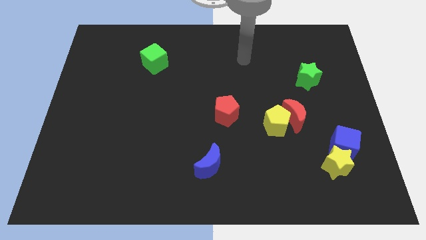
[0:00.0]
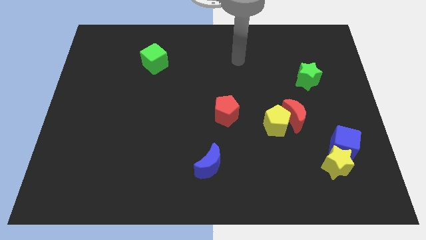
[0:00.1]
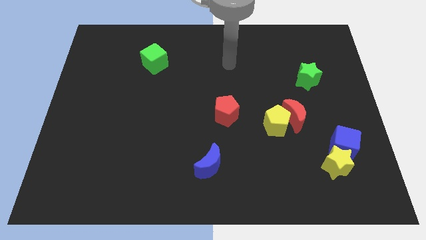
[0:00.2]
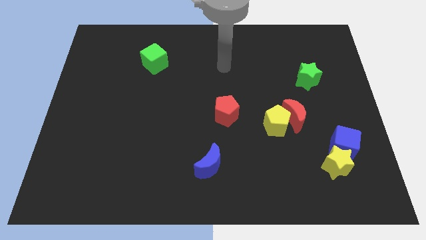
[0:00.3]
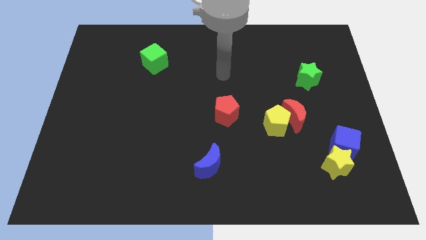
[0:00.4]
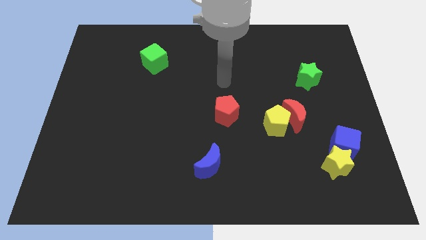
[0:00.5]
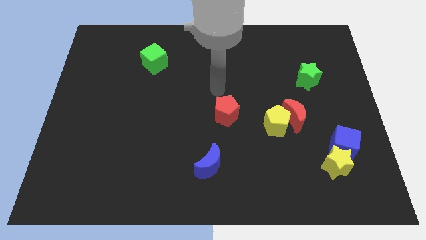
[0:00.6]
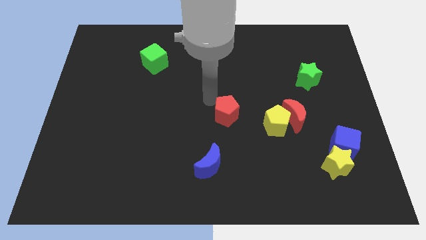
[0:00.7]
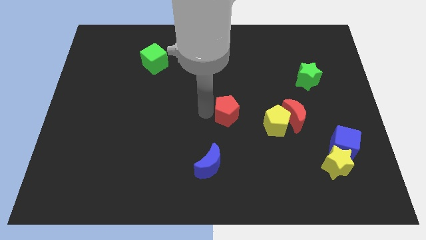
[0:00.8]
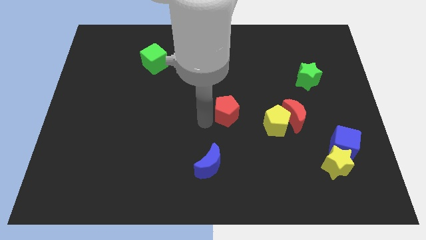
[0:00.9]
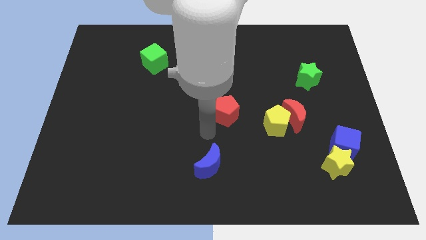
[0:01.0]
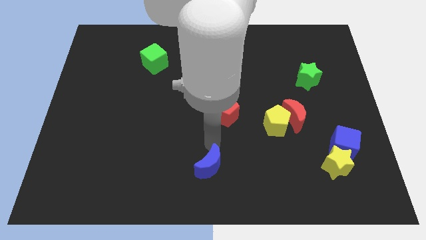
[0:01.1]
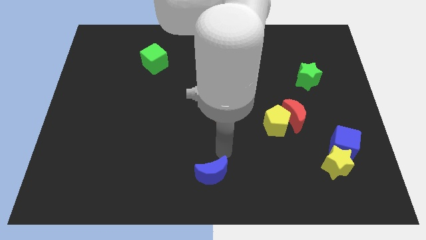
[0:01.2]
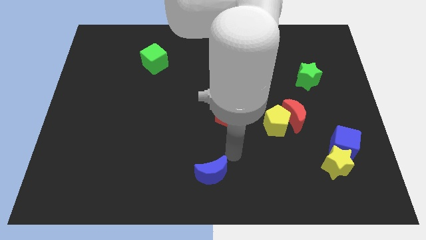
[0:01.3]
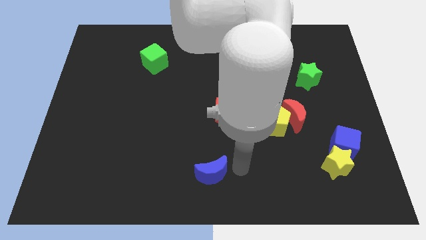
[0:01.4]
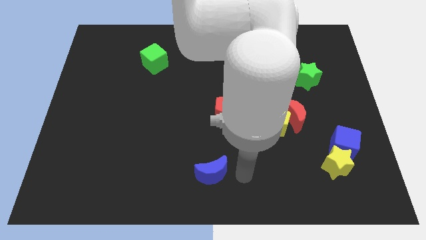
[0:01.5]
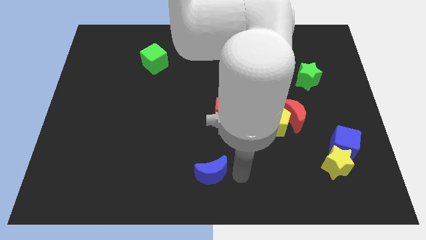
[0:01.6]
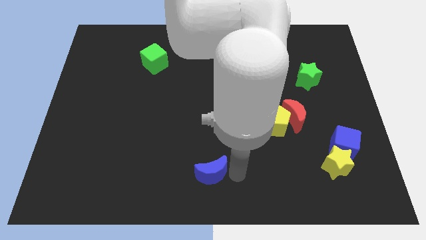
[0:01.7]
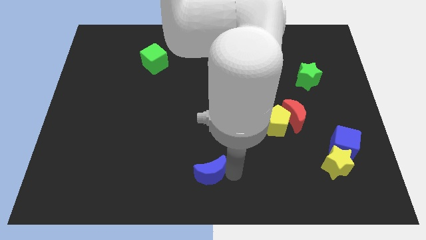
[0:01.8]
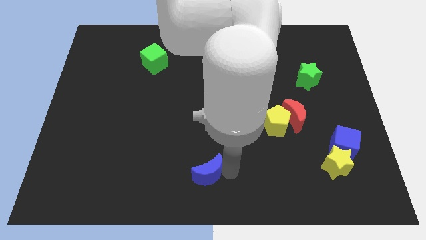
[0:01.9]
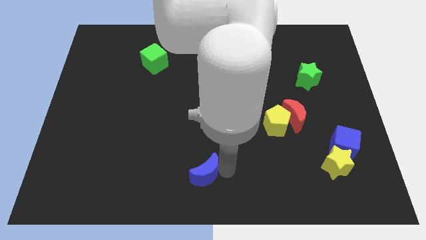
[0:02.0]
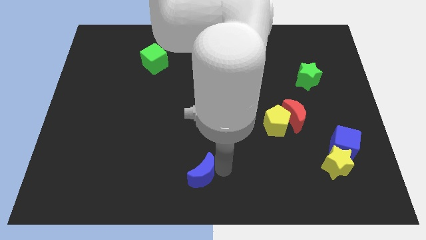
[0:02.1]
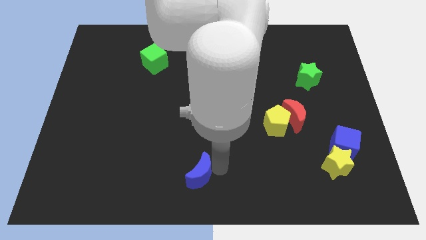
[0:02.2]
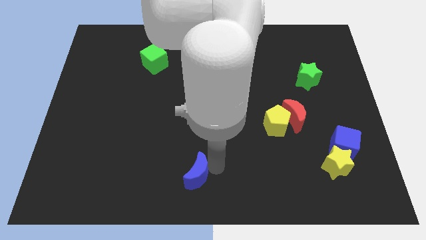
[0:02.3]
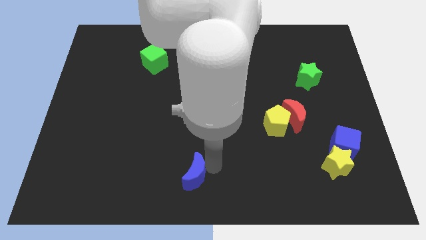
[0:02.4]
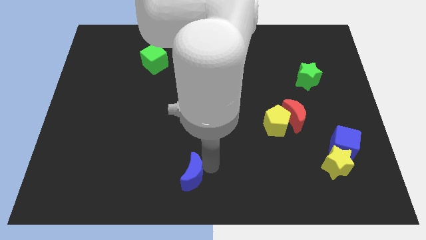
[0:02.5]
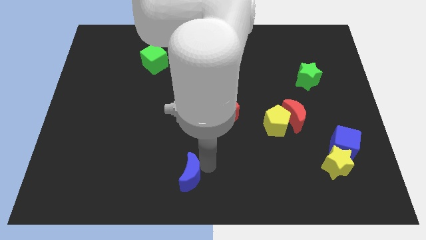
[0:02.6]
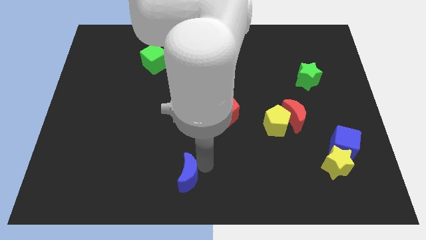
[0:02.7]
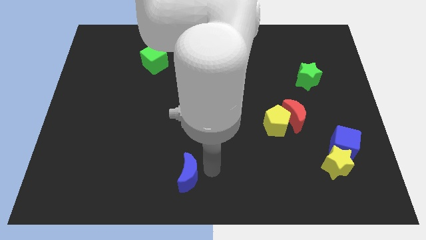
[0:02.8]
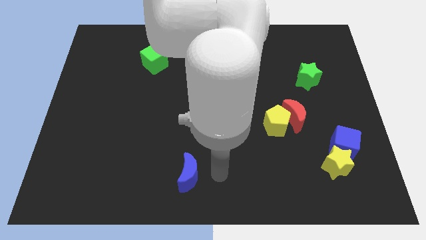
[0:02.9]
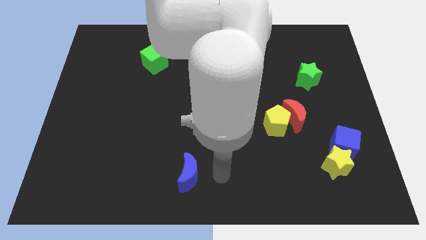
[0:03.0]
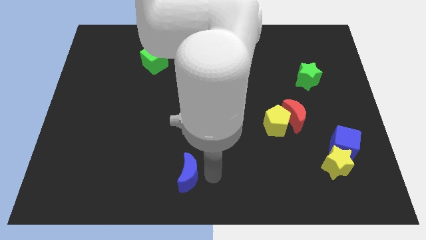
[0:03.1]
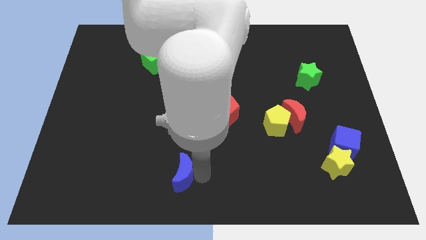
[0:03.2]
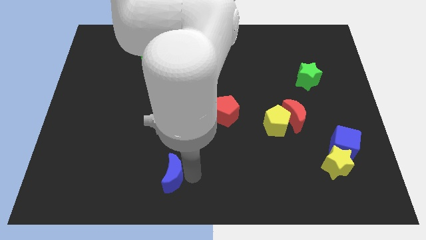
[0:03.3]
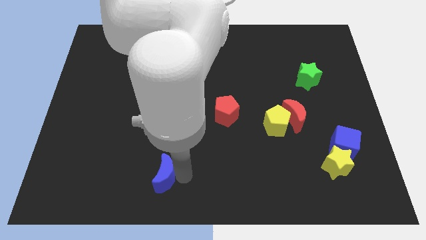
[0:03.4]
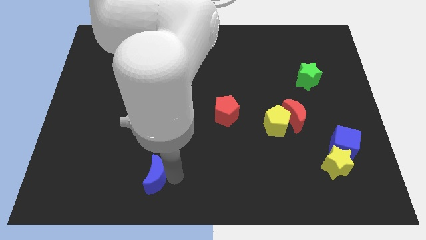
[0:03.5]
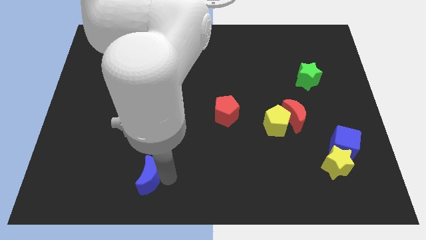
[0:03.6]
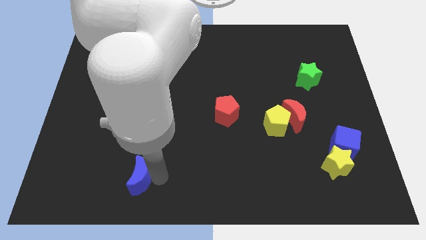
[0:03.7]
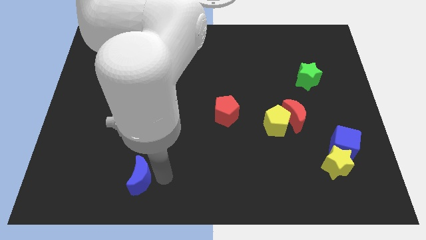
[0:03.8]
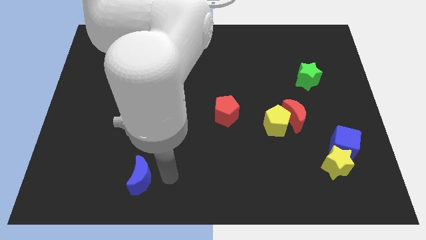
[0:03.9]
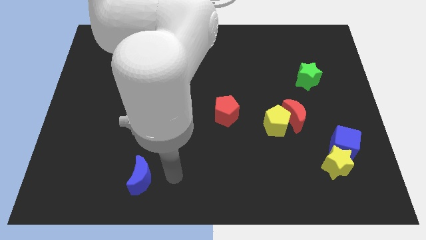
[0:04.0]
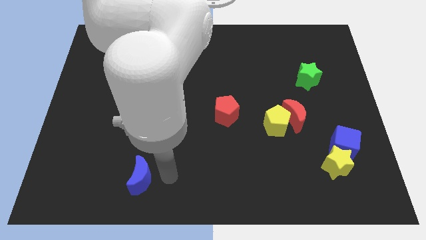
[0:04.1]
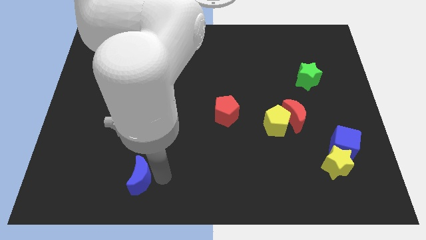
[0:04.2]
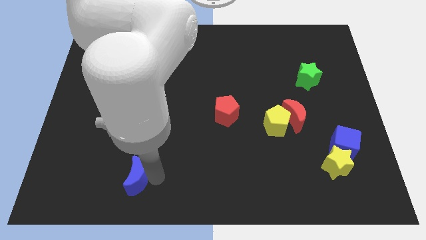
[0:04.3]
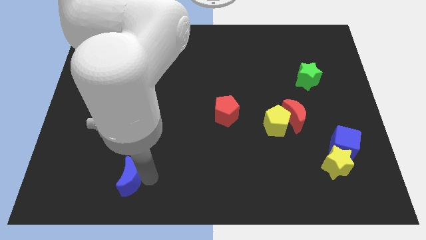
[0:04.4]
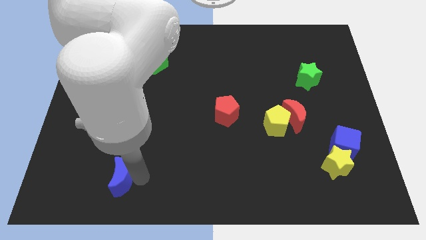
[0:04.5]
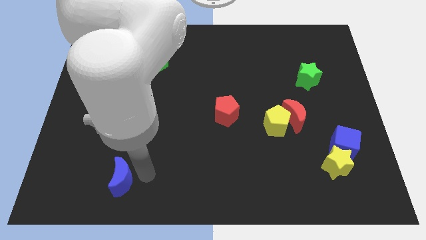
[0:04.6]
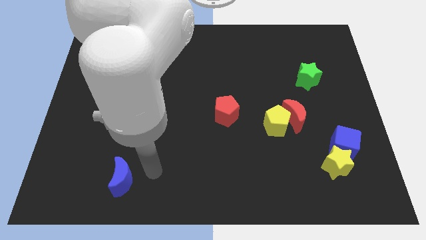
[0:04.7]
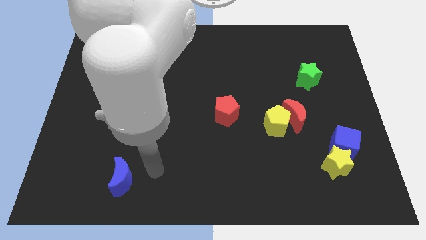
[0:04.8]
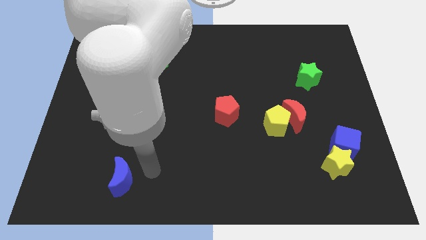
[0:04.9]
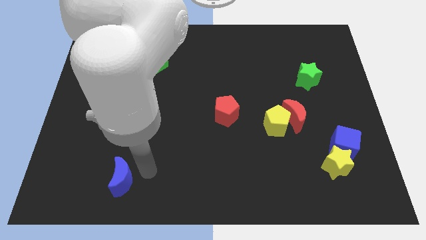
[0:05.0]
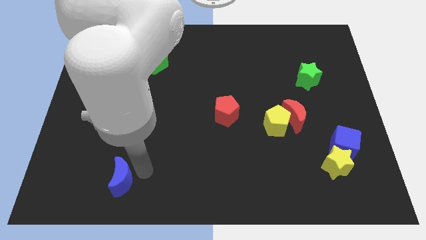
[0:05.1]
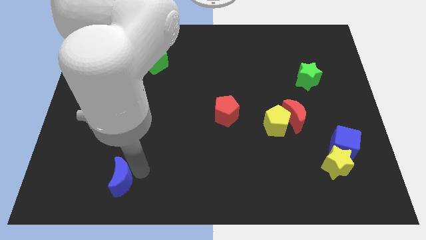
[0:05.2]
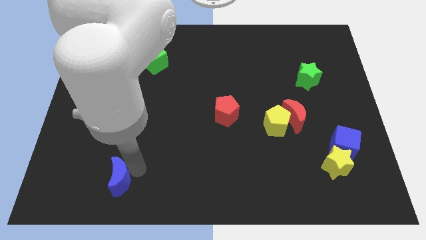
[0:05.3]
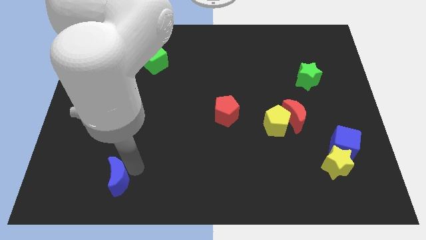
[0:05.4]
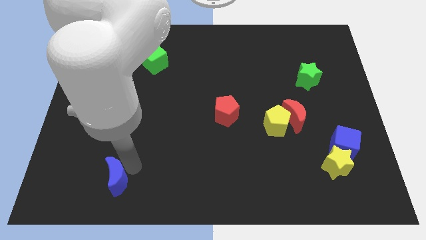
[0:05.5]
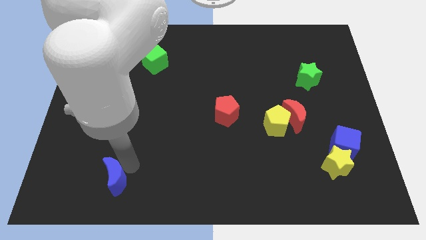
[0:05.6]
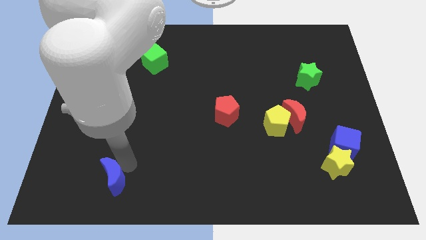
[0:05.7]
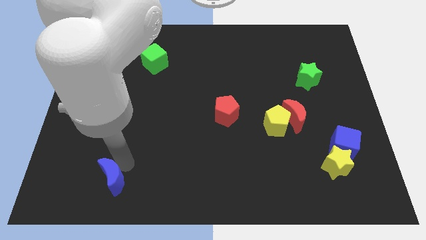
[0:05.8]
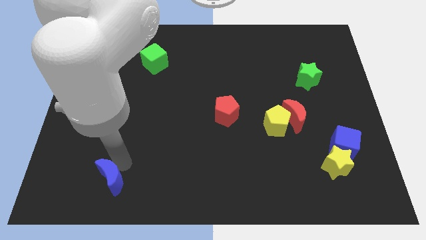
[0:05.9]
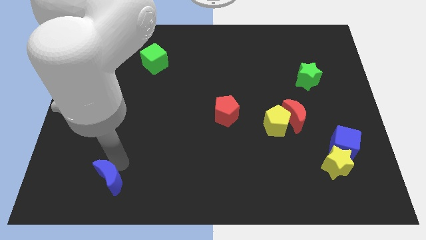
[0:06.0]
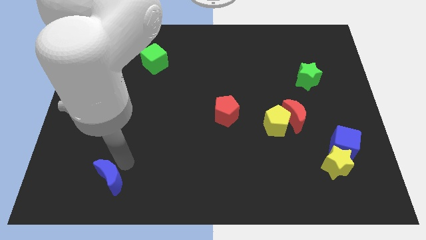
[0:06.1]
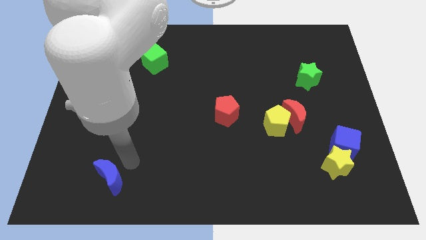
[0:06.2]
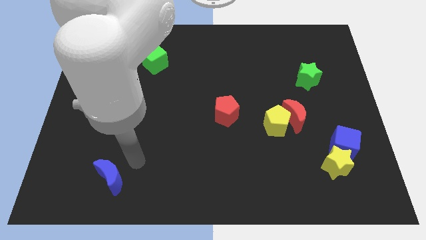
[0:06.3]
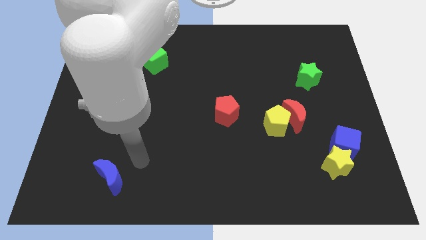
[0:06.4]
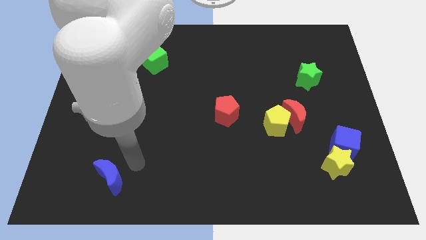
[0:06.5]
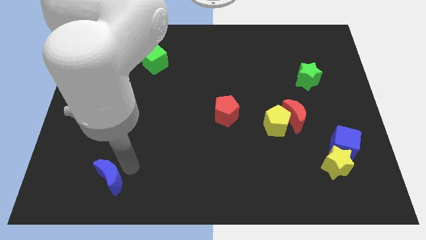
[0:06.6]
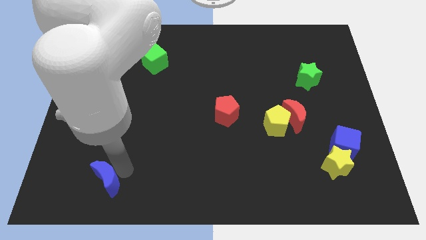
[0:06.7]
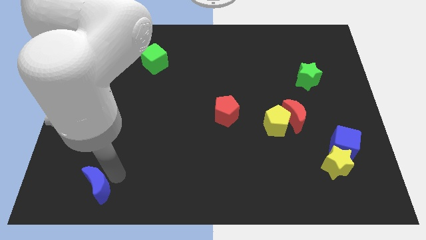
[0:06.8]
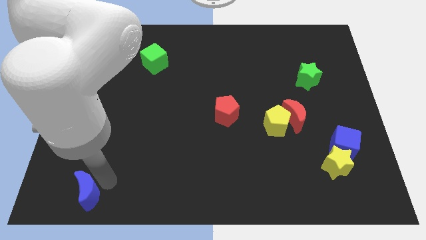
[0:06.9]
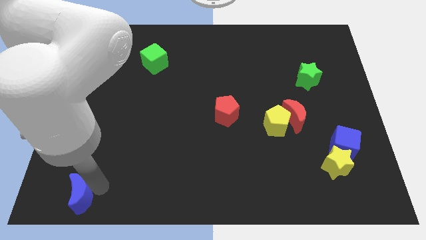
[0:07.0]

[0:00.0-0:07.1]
slide the blue moon to the bottom left
